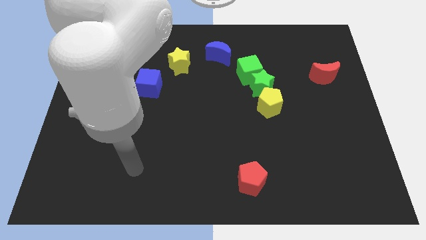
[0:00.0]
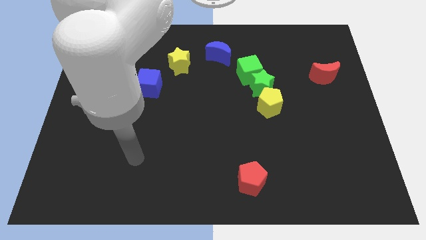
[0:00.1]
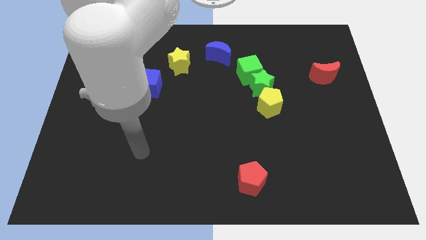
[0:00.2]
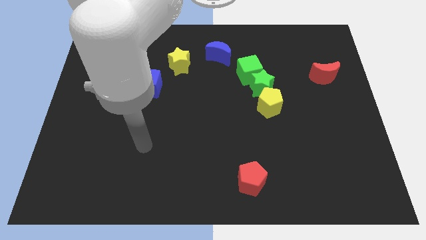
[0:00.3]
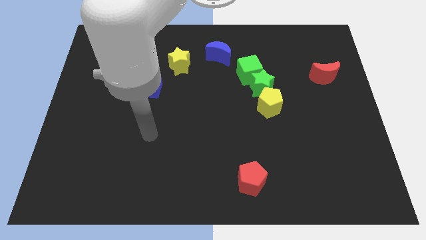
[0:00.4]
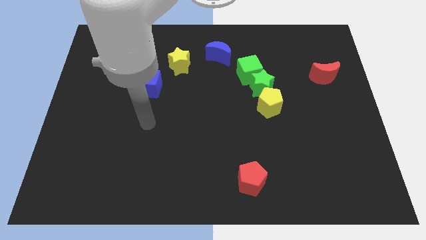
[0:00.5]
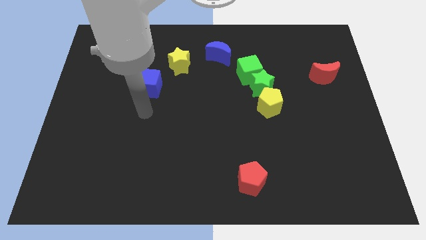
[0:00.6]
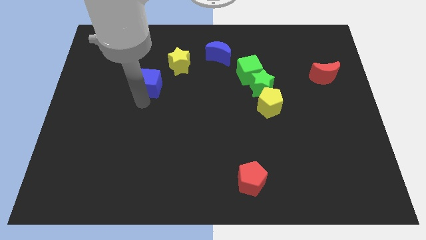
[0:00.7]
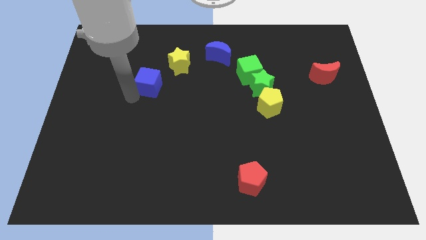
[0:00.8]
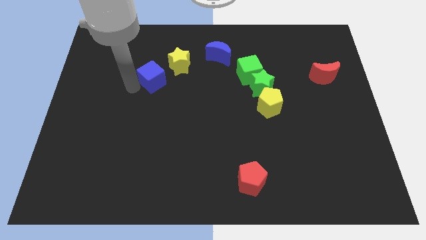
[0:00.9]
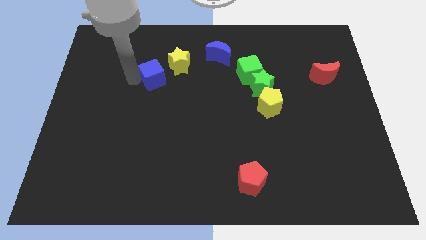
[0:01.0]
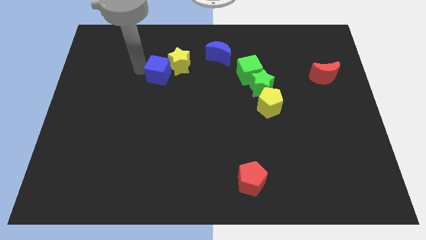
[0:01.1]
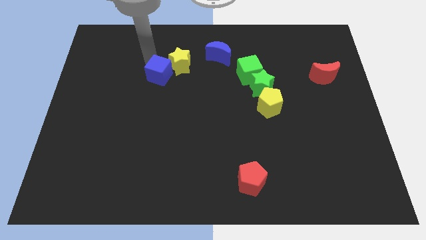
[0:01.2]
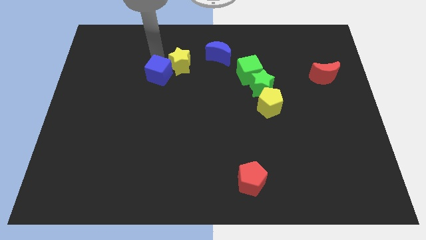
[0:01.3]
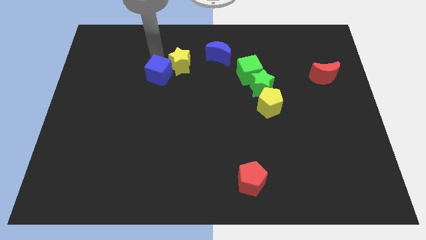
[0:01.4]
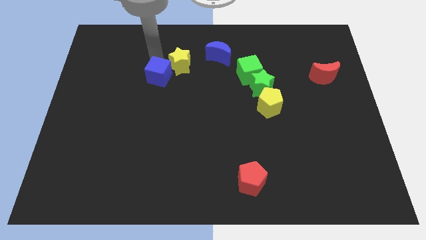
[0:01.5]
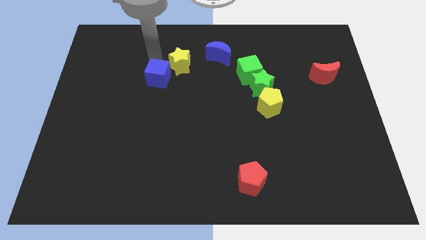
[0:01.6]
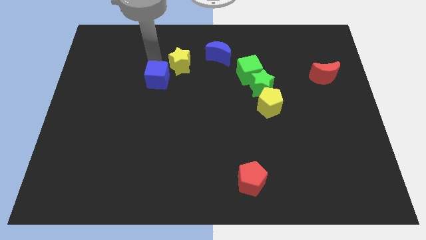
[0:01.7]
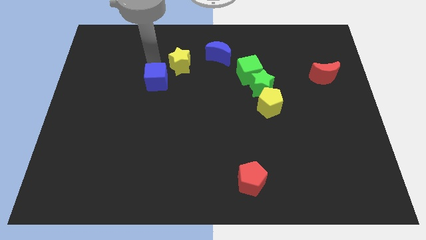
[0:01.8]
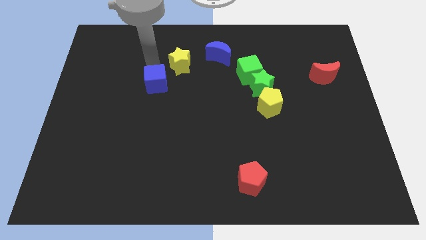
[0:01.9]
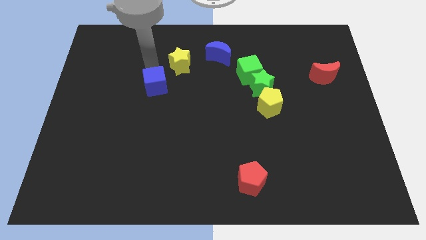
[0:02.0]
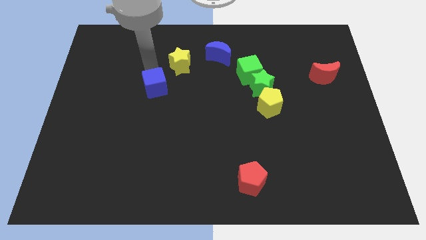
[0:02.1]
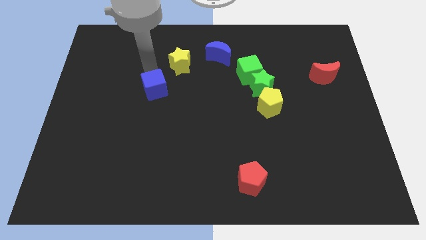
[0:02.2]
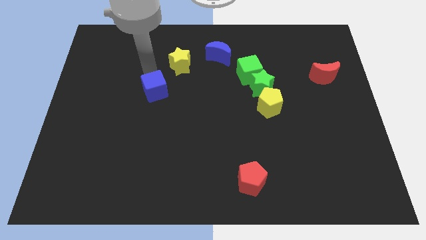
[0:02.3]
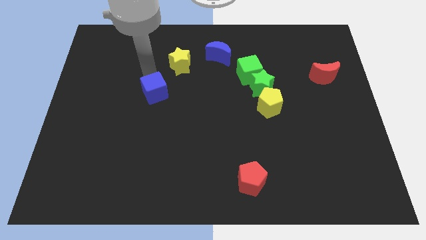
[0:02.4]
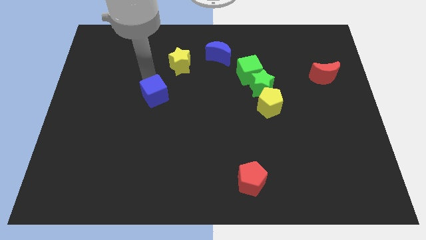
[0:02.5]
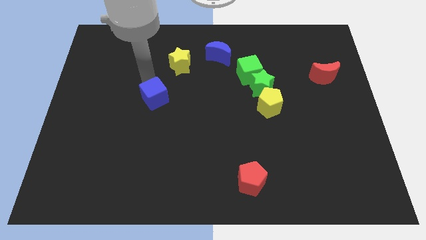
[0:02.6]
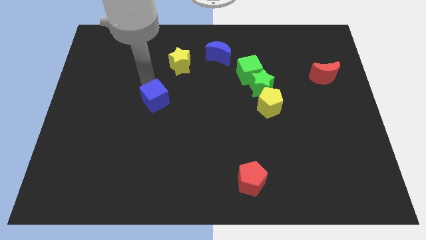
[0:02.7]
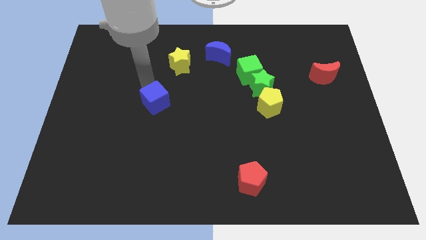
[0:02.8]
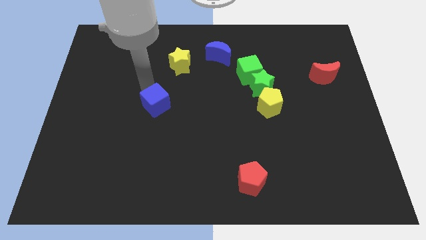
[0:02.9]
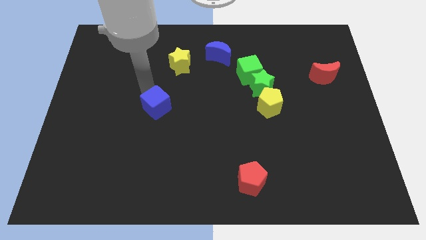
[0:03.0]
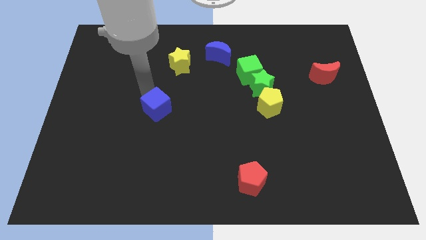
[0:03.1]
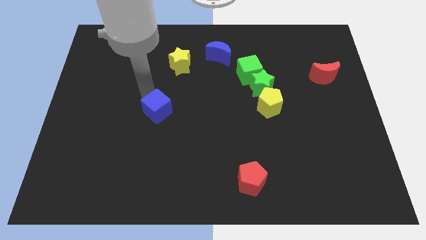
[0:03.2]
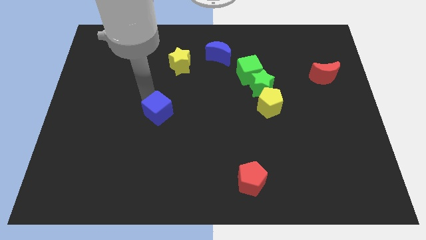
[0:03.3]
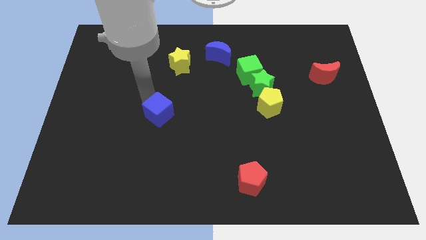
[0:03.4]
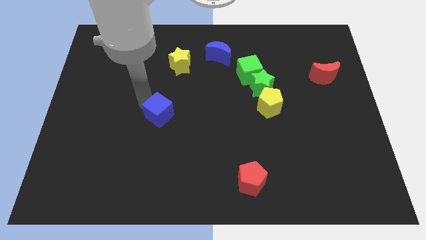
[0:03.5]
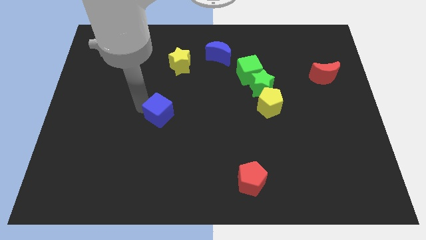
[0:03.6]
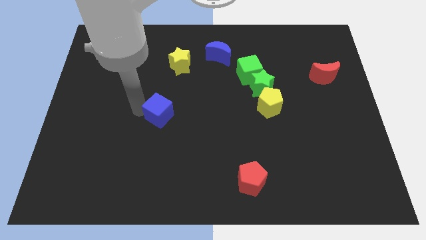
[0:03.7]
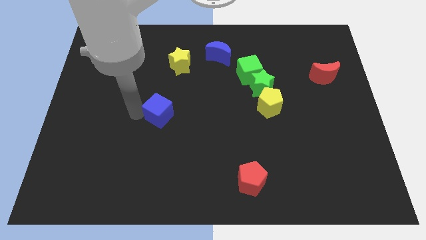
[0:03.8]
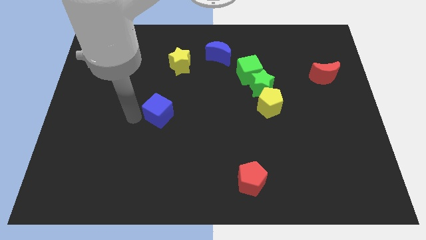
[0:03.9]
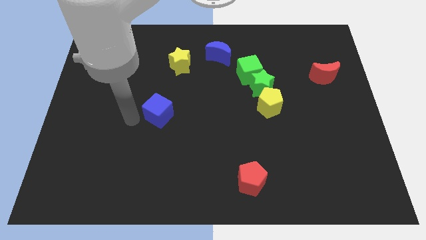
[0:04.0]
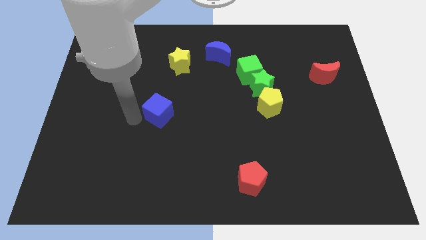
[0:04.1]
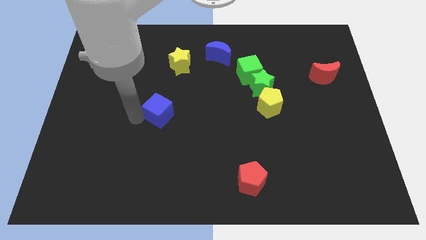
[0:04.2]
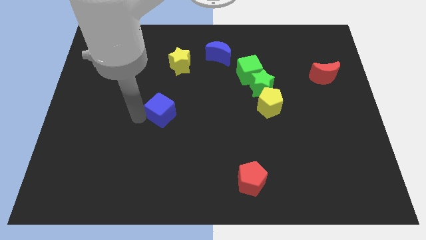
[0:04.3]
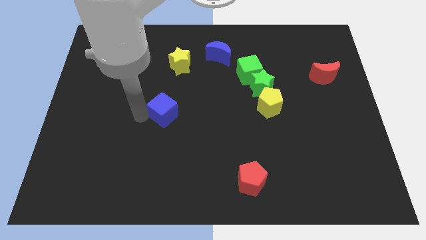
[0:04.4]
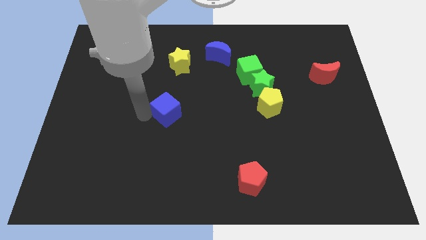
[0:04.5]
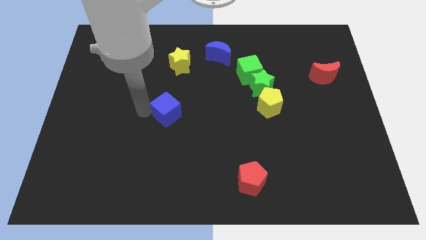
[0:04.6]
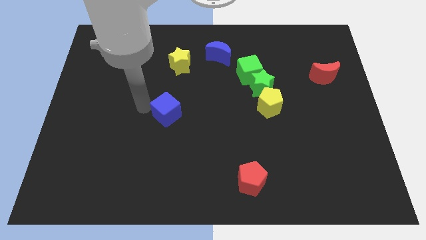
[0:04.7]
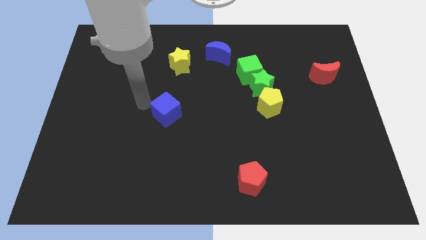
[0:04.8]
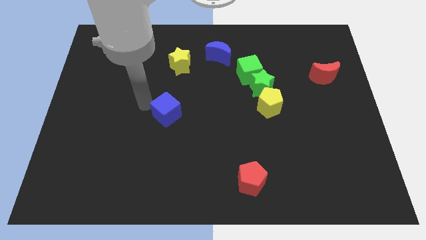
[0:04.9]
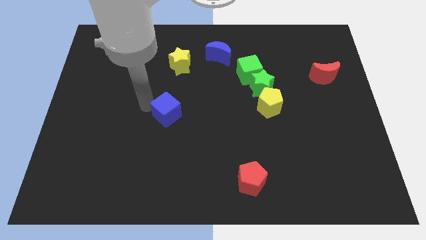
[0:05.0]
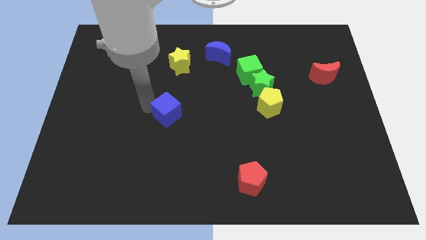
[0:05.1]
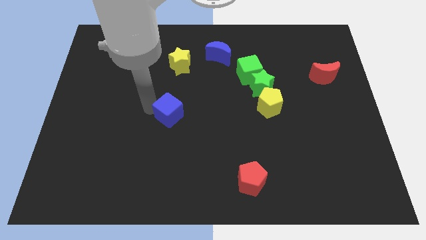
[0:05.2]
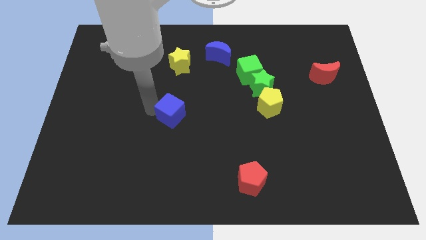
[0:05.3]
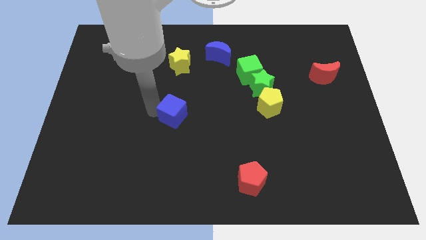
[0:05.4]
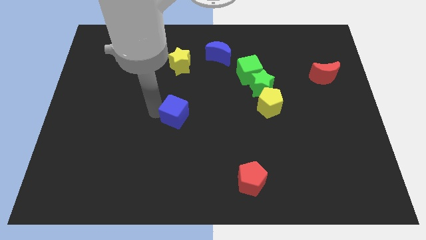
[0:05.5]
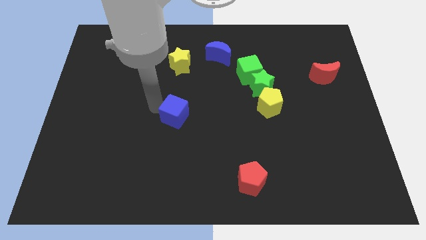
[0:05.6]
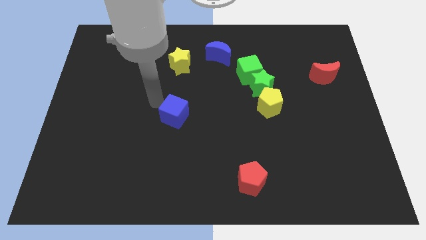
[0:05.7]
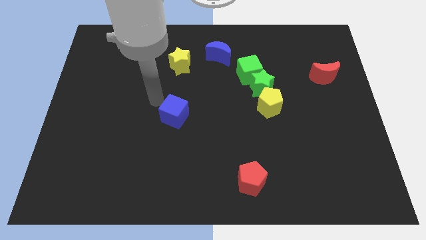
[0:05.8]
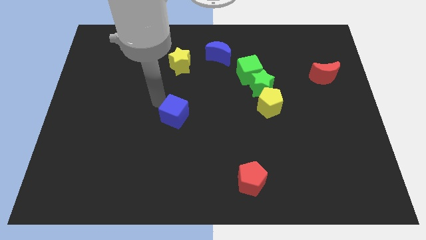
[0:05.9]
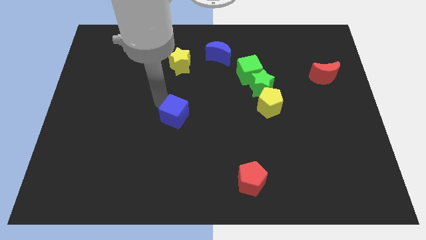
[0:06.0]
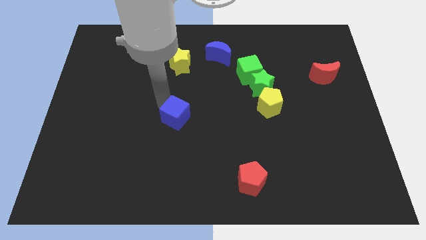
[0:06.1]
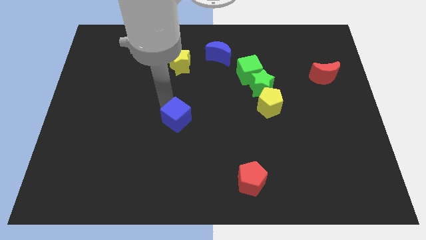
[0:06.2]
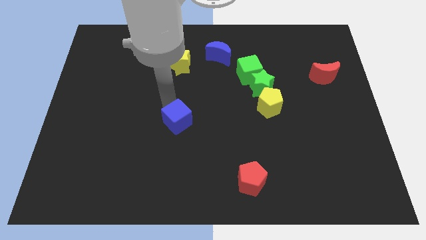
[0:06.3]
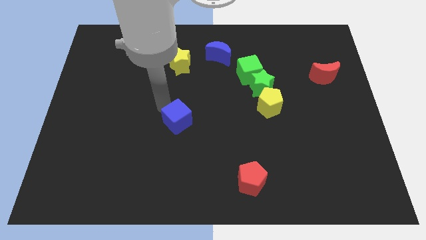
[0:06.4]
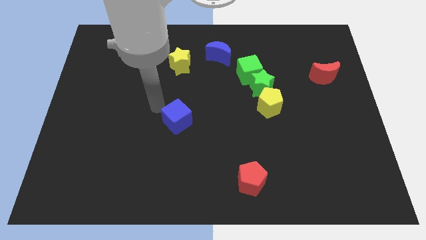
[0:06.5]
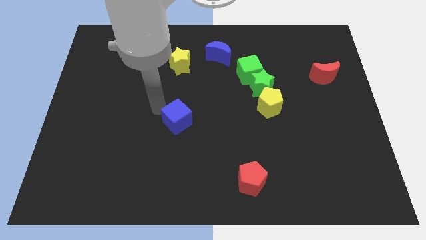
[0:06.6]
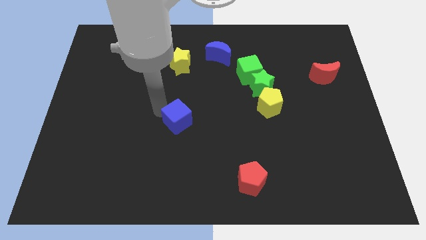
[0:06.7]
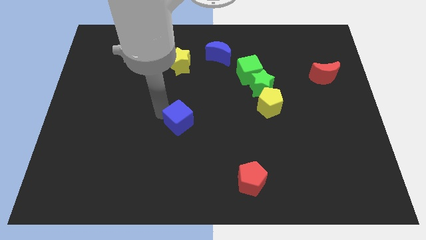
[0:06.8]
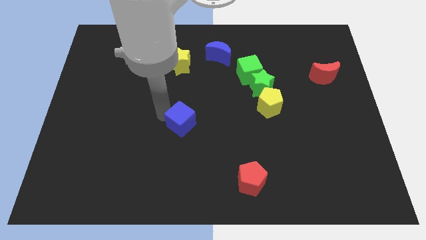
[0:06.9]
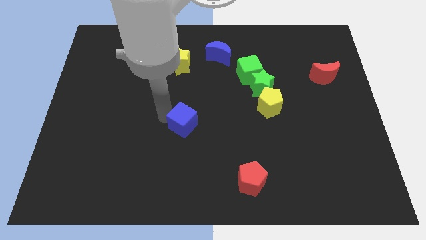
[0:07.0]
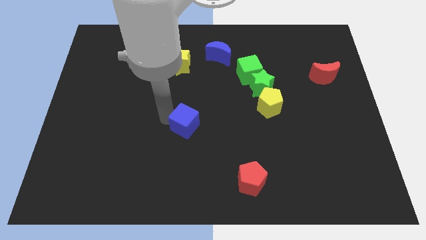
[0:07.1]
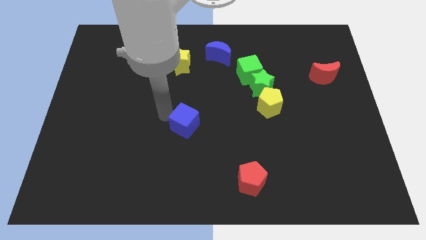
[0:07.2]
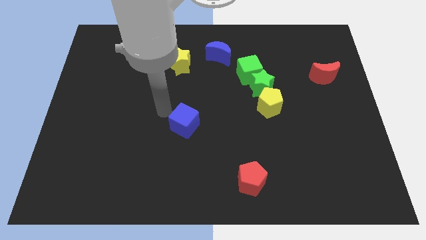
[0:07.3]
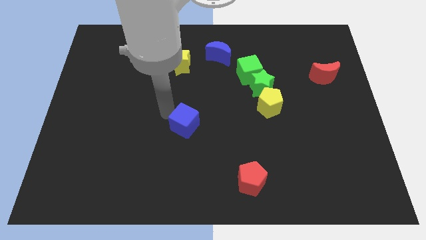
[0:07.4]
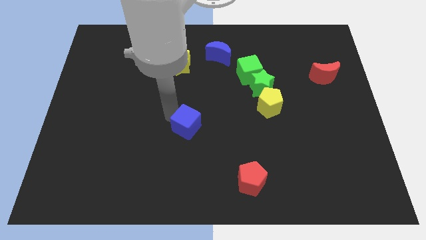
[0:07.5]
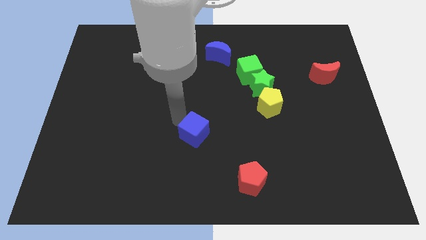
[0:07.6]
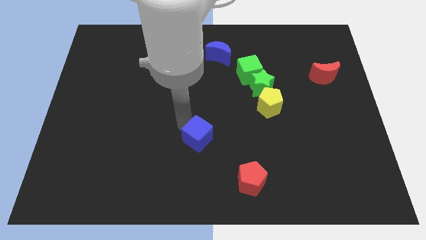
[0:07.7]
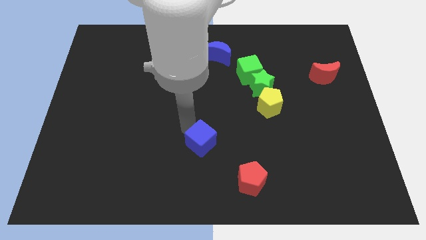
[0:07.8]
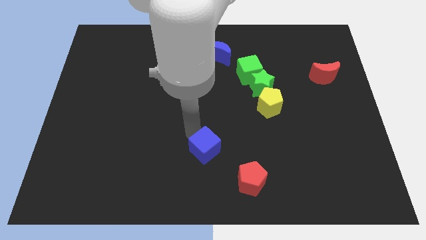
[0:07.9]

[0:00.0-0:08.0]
put the blue cube to the top left of the red pentagon
